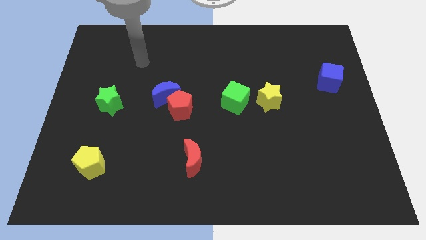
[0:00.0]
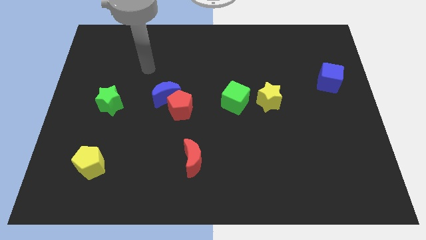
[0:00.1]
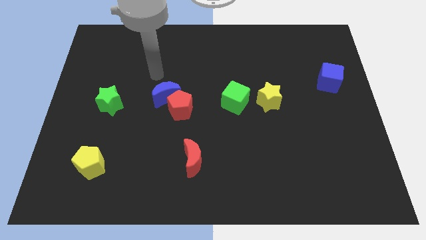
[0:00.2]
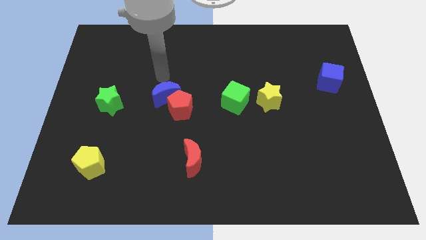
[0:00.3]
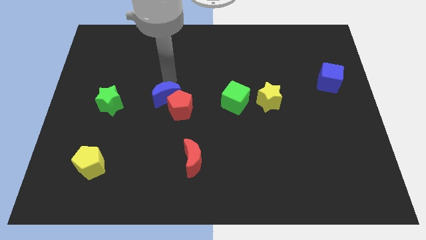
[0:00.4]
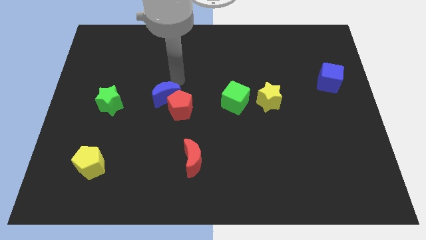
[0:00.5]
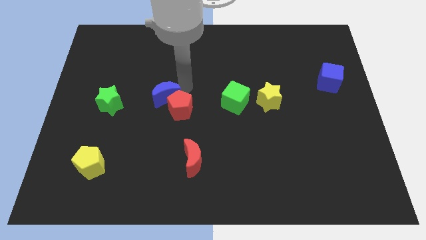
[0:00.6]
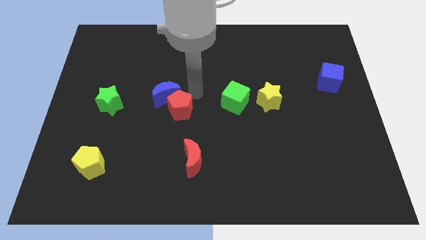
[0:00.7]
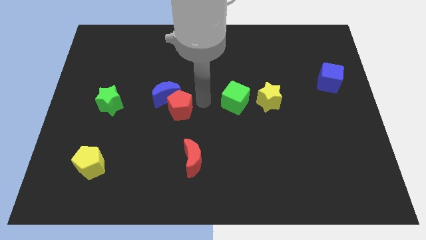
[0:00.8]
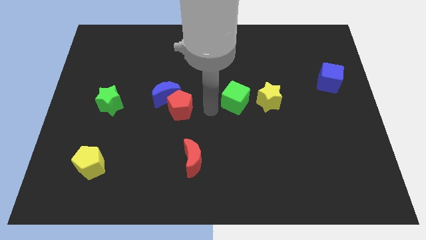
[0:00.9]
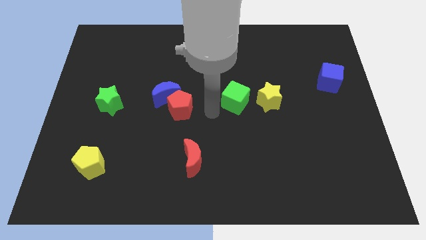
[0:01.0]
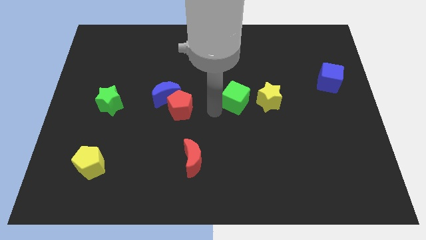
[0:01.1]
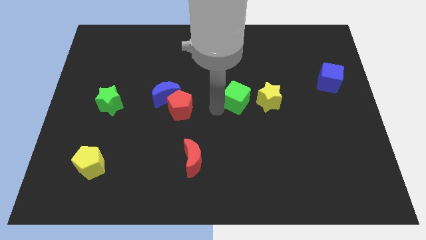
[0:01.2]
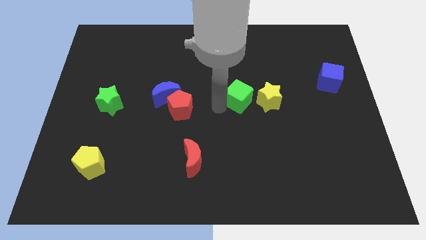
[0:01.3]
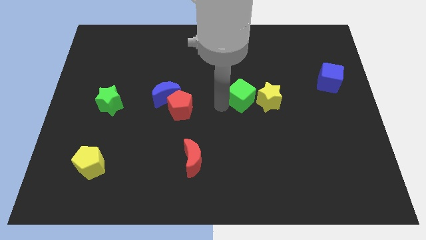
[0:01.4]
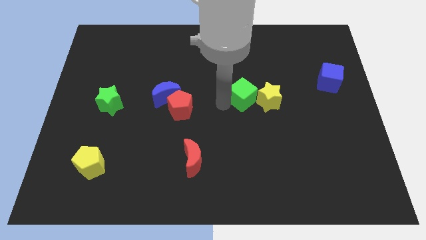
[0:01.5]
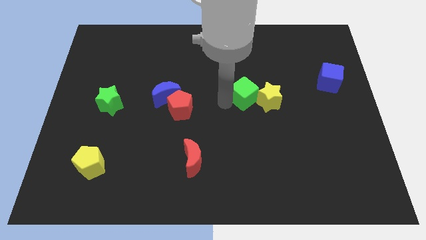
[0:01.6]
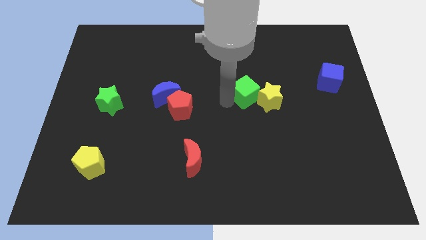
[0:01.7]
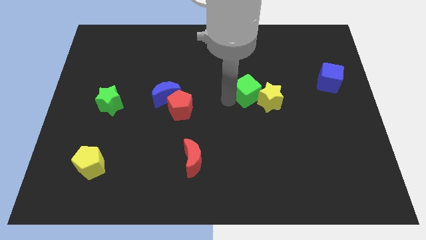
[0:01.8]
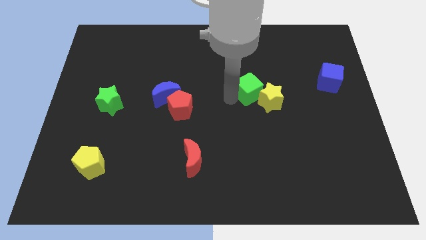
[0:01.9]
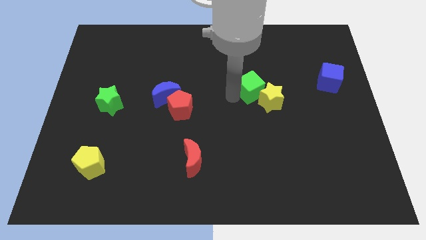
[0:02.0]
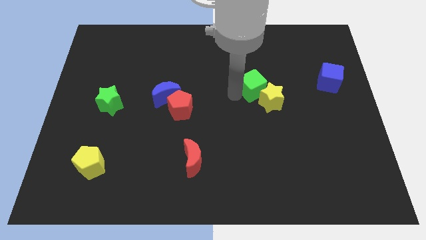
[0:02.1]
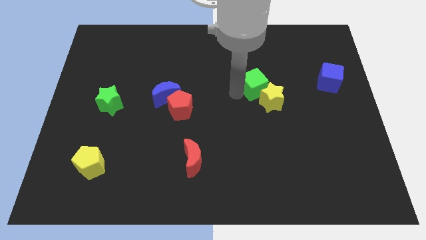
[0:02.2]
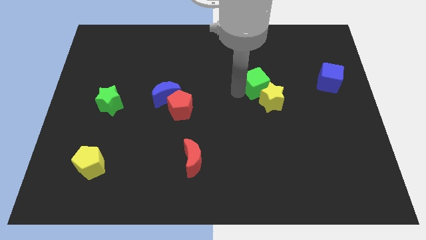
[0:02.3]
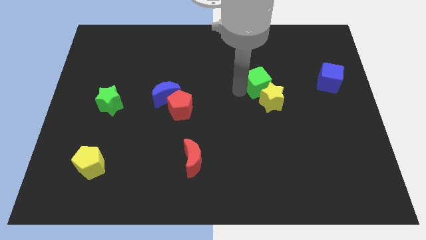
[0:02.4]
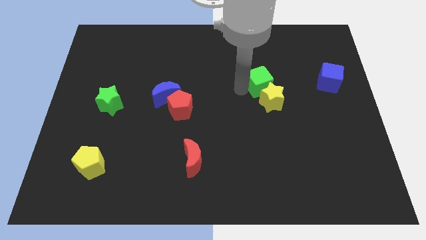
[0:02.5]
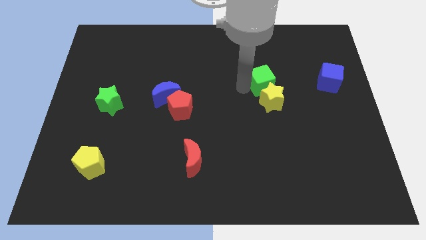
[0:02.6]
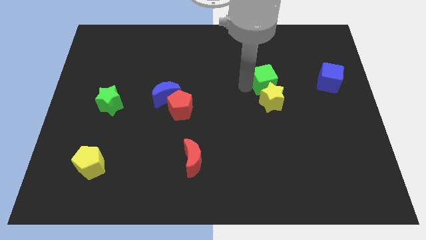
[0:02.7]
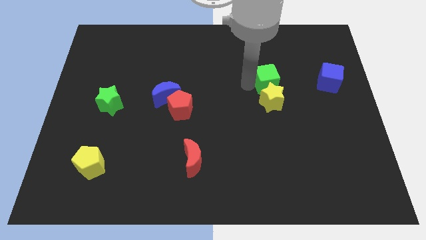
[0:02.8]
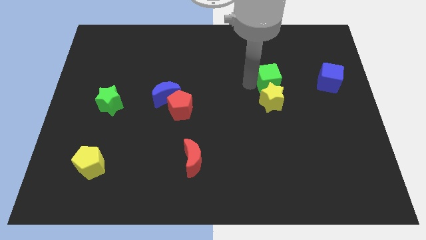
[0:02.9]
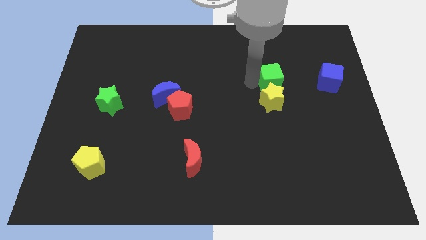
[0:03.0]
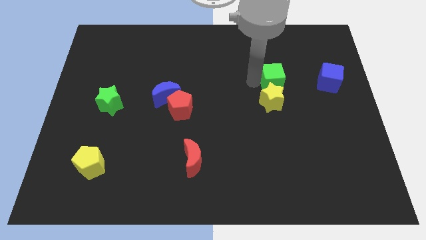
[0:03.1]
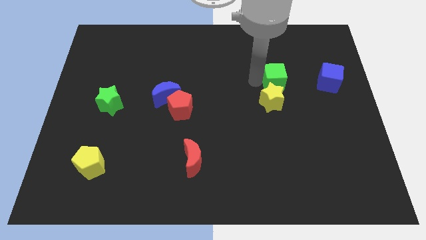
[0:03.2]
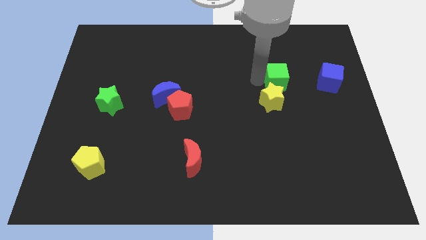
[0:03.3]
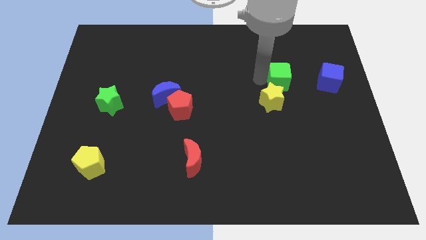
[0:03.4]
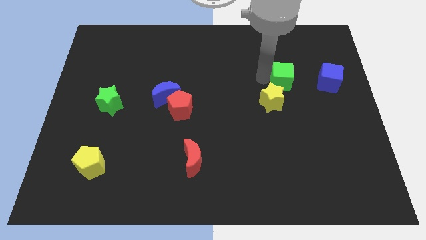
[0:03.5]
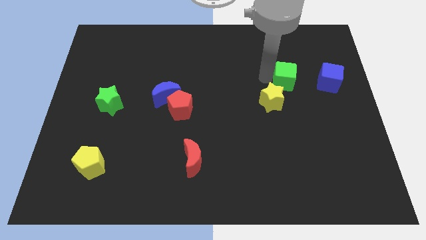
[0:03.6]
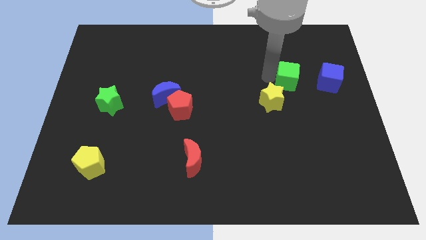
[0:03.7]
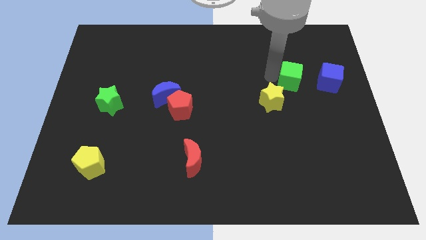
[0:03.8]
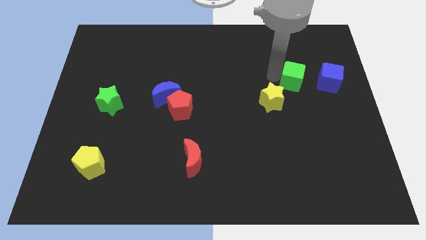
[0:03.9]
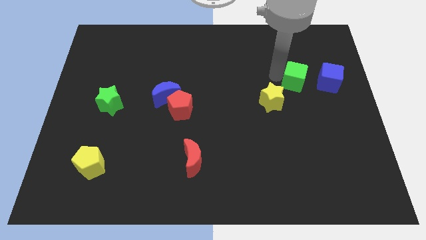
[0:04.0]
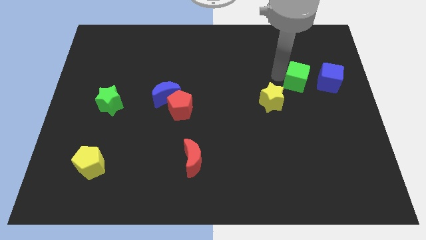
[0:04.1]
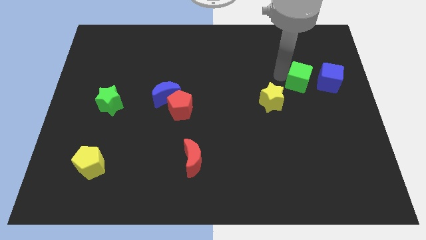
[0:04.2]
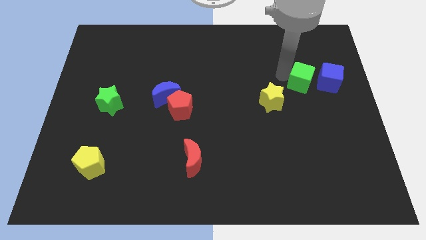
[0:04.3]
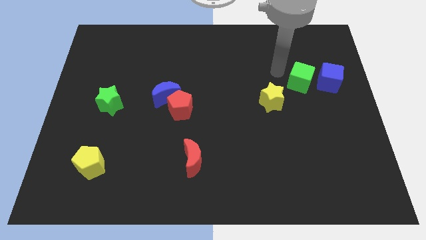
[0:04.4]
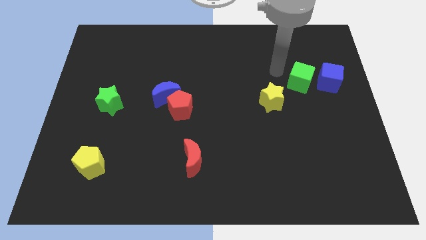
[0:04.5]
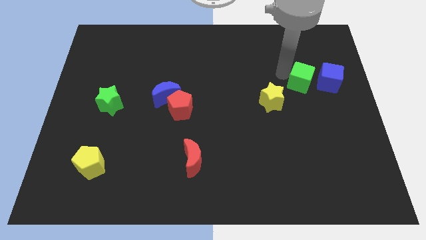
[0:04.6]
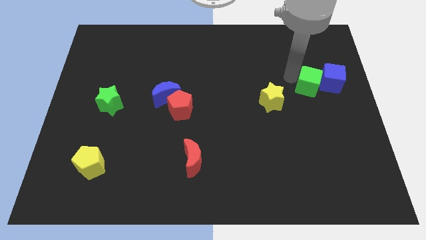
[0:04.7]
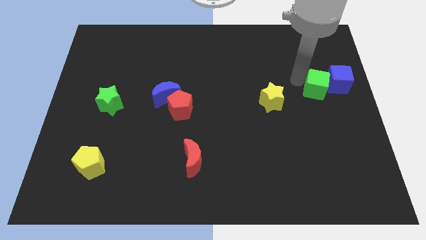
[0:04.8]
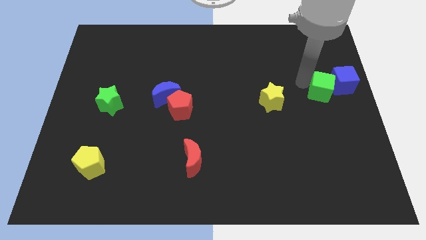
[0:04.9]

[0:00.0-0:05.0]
move the green cube to the right side

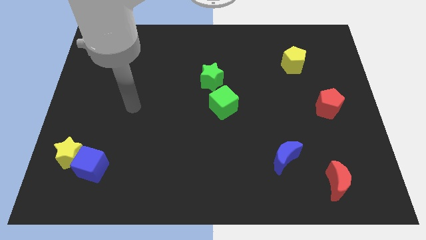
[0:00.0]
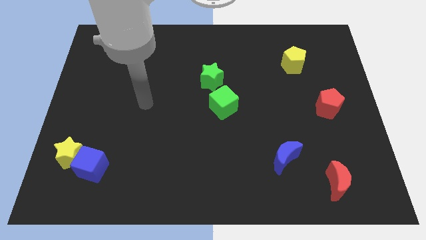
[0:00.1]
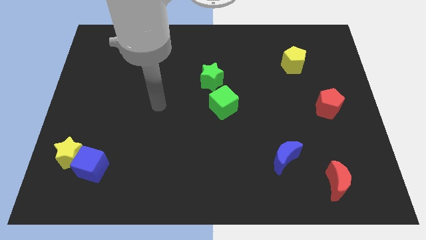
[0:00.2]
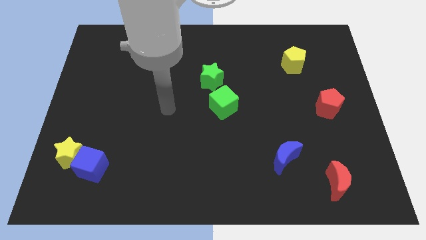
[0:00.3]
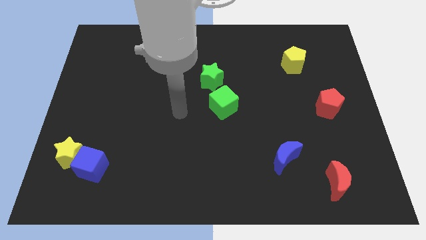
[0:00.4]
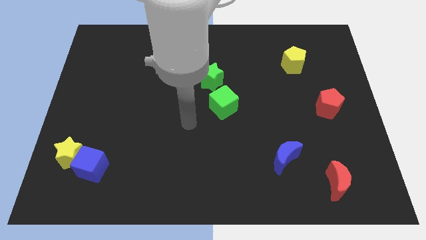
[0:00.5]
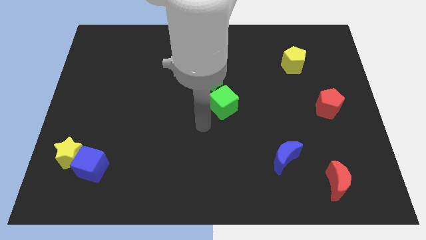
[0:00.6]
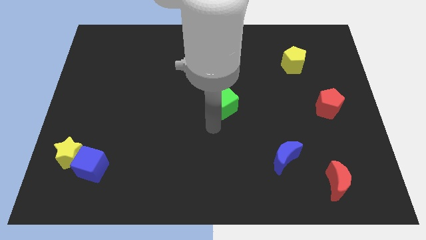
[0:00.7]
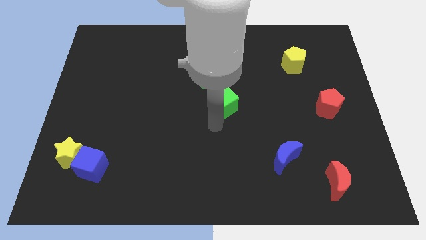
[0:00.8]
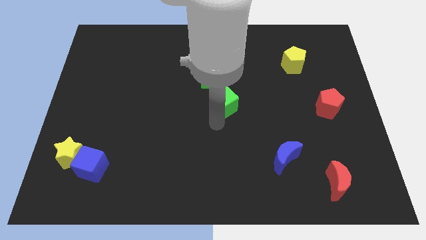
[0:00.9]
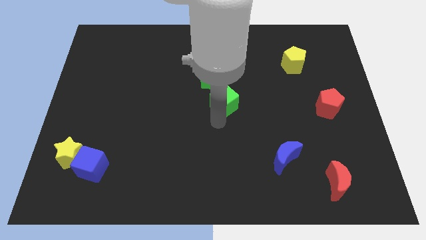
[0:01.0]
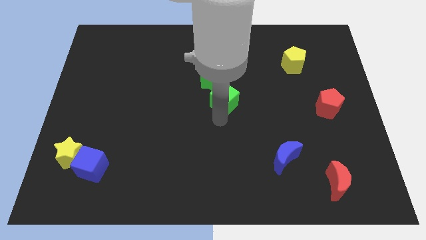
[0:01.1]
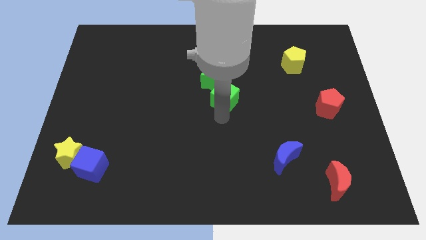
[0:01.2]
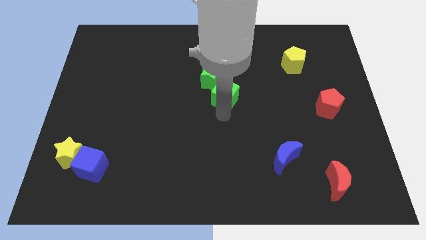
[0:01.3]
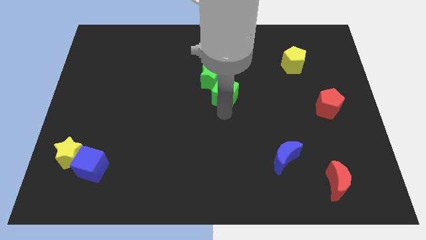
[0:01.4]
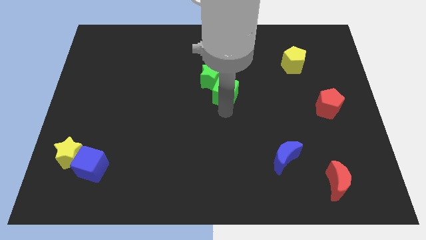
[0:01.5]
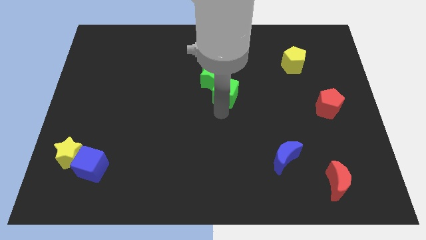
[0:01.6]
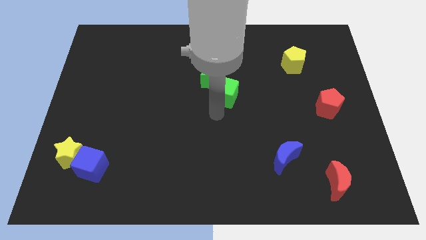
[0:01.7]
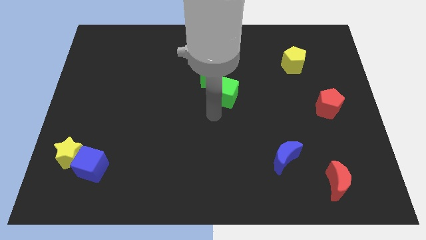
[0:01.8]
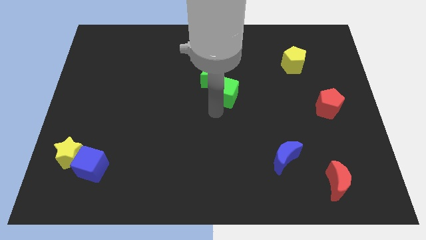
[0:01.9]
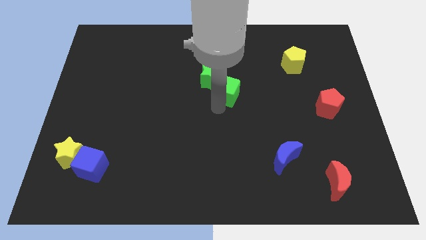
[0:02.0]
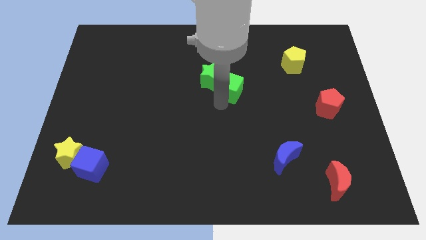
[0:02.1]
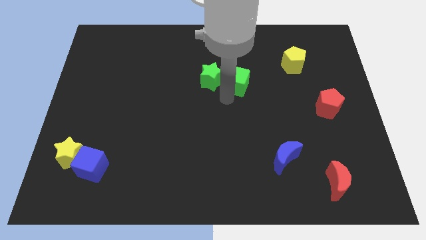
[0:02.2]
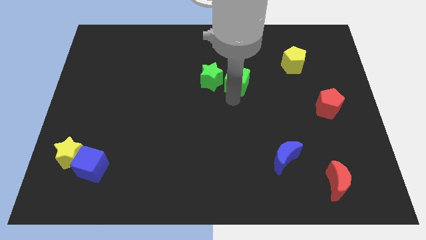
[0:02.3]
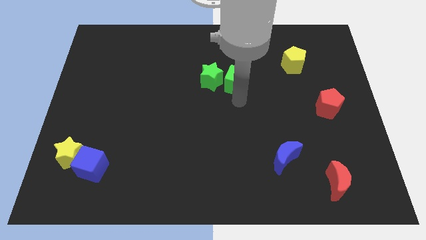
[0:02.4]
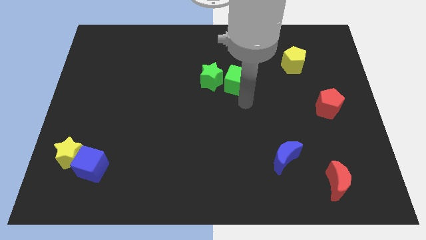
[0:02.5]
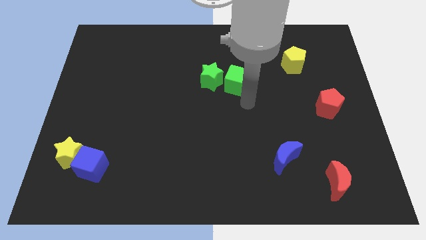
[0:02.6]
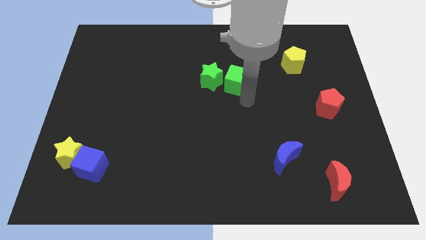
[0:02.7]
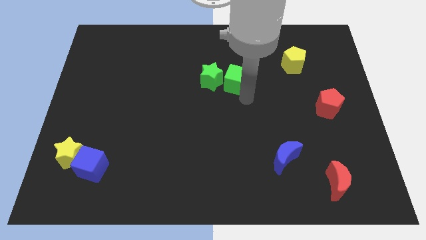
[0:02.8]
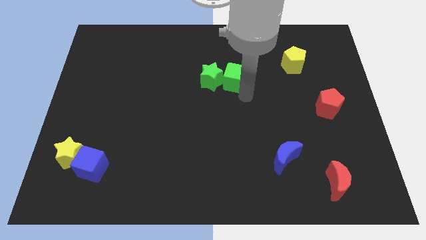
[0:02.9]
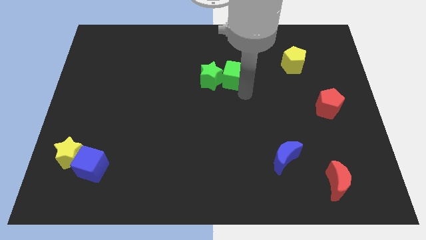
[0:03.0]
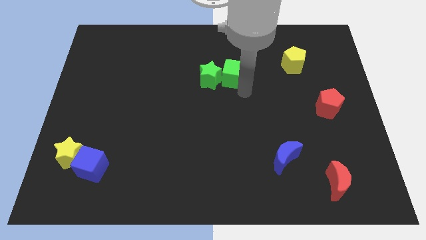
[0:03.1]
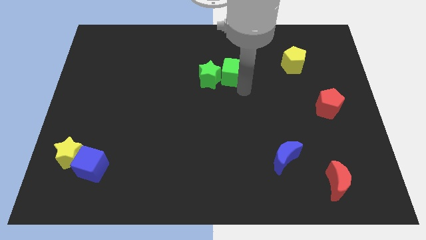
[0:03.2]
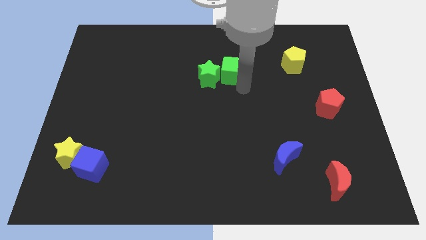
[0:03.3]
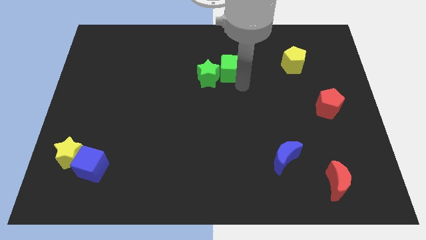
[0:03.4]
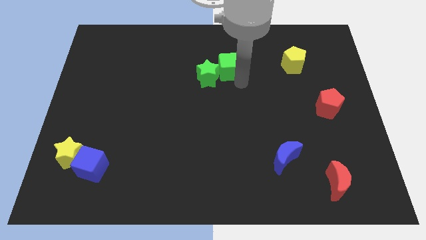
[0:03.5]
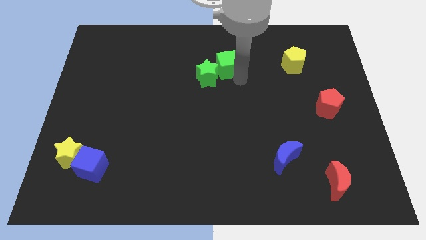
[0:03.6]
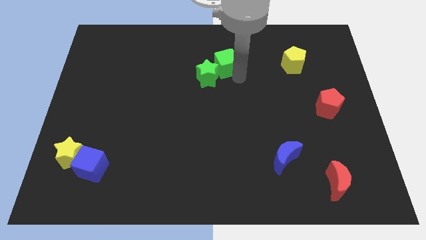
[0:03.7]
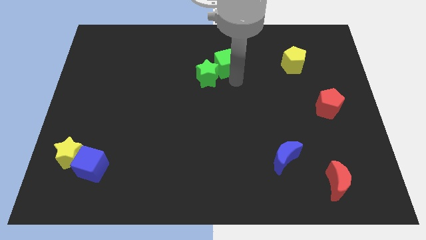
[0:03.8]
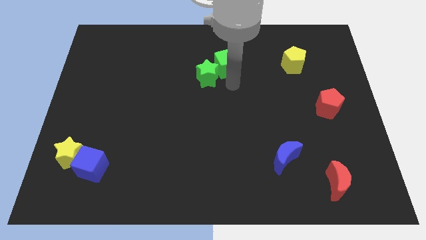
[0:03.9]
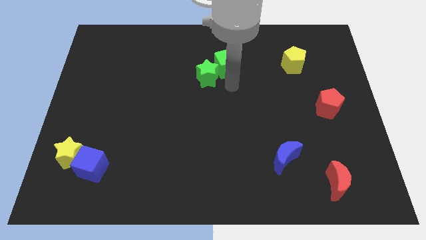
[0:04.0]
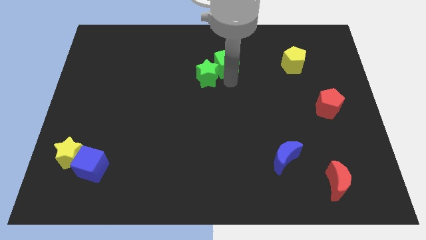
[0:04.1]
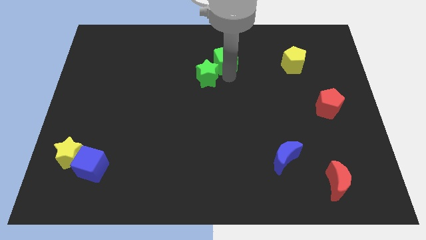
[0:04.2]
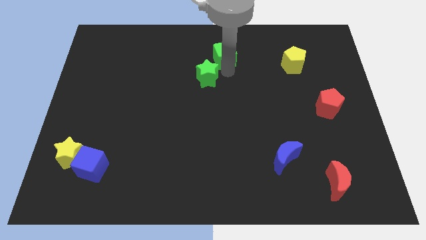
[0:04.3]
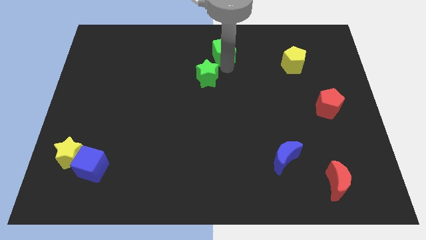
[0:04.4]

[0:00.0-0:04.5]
move the green cube to the towards your base
